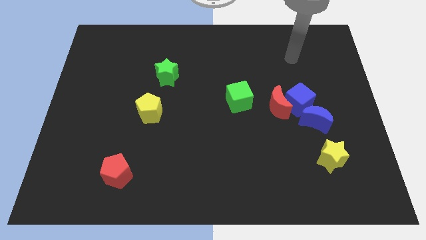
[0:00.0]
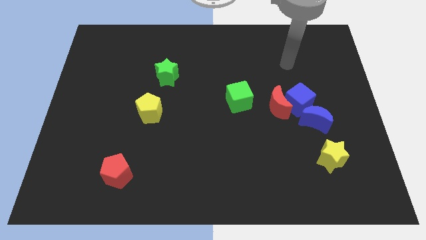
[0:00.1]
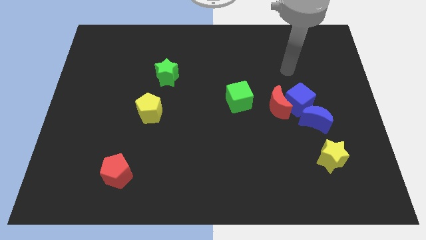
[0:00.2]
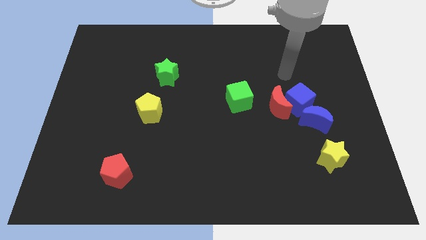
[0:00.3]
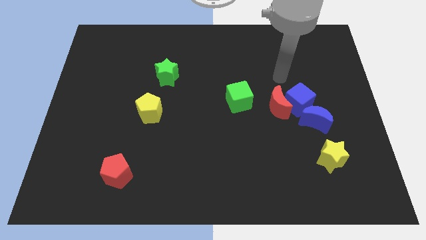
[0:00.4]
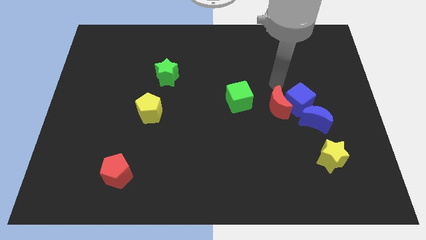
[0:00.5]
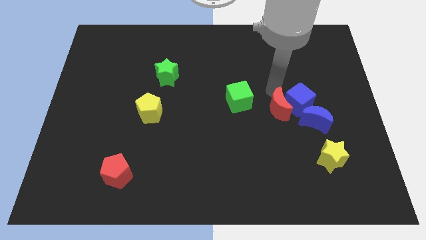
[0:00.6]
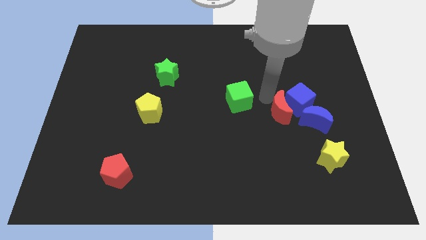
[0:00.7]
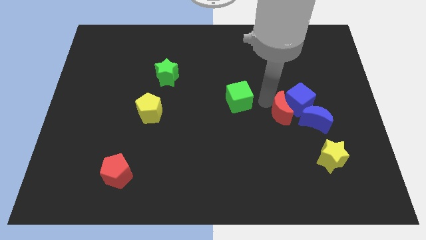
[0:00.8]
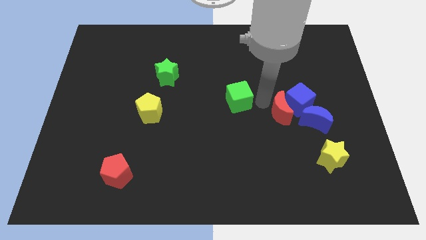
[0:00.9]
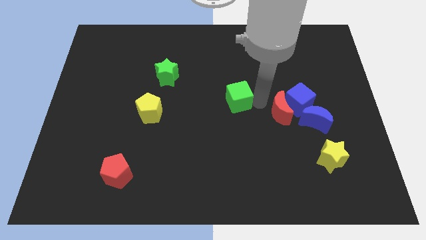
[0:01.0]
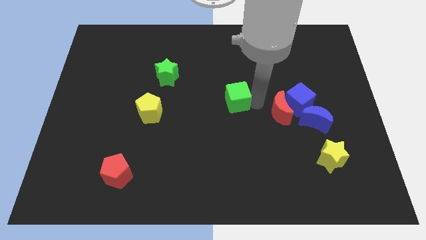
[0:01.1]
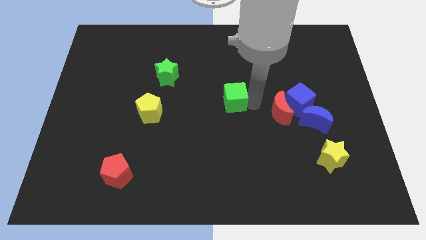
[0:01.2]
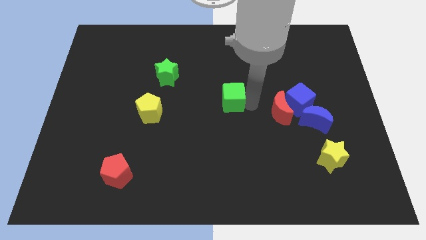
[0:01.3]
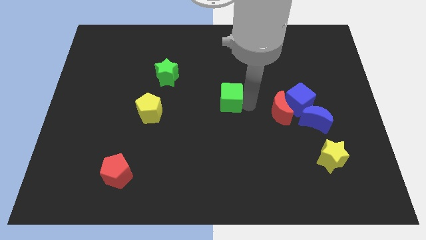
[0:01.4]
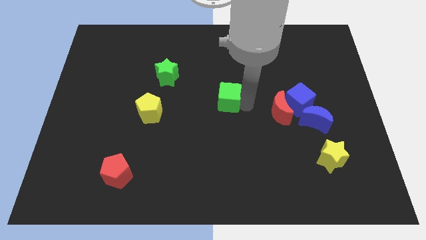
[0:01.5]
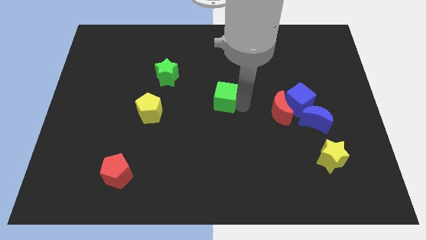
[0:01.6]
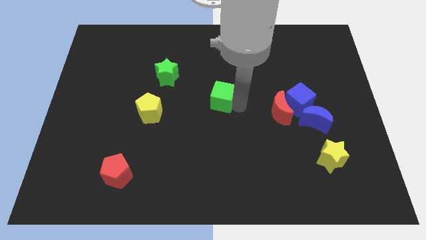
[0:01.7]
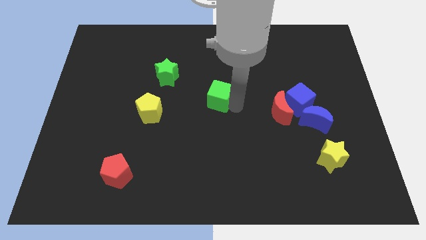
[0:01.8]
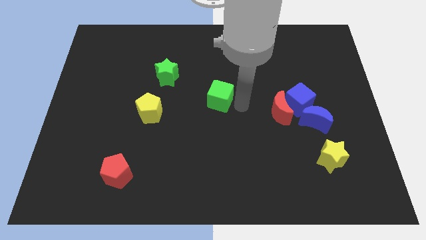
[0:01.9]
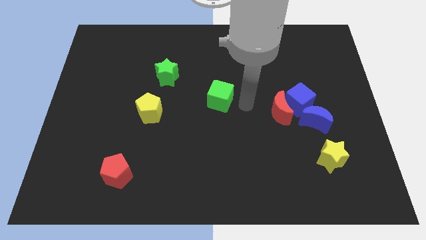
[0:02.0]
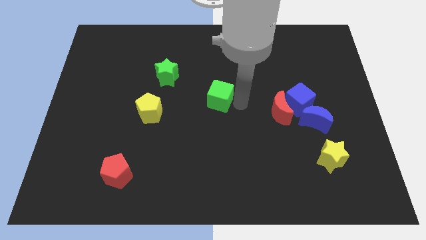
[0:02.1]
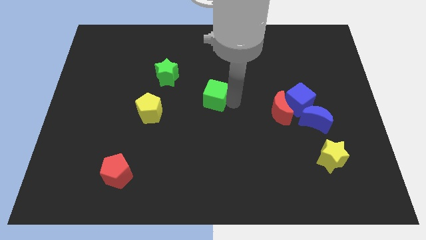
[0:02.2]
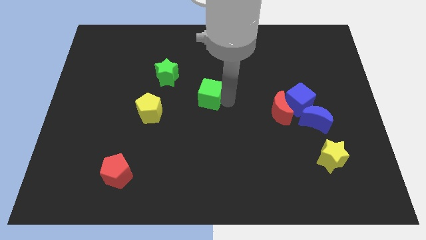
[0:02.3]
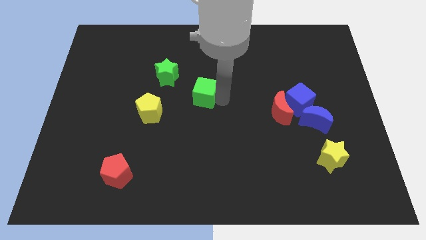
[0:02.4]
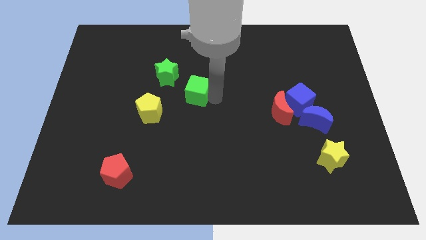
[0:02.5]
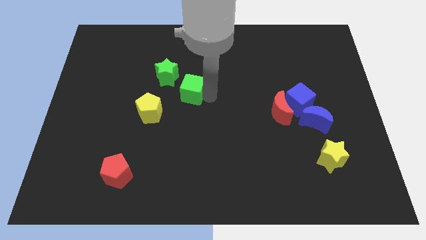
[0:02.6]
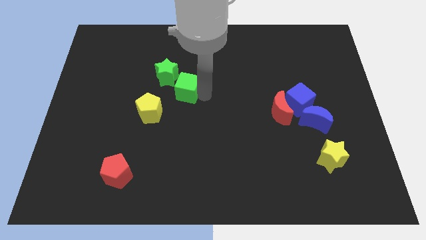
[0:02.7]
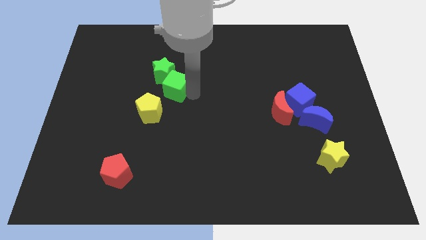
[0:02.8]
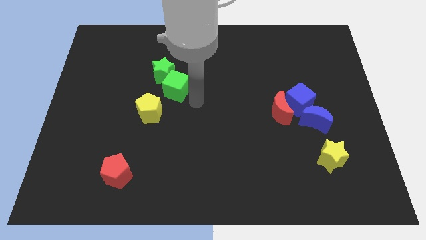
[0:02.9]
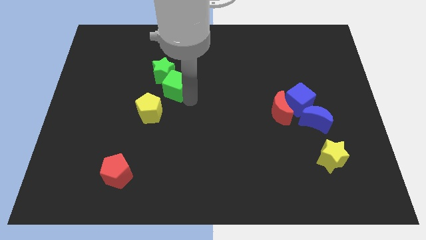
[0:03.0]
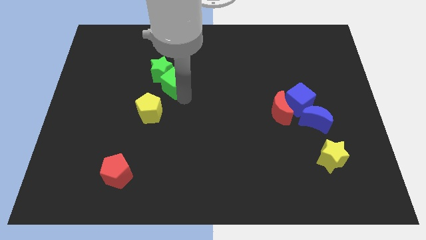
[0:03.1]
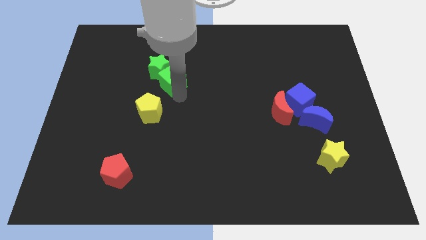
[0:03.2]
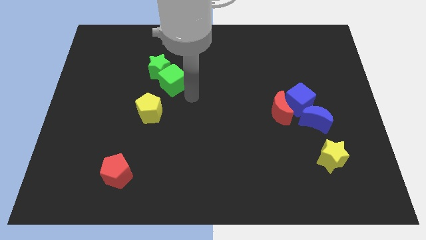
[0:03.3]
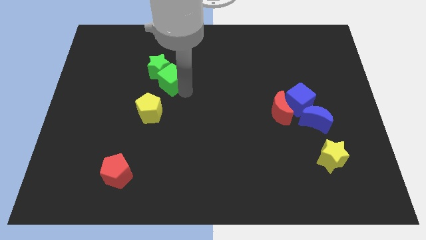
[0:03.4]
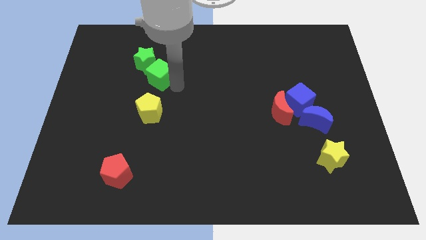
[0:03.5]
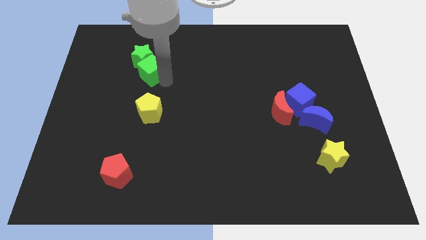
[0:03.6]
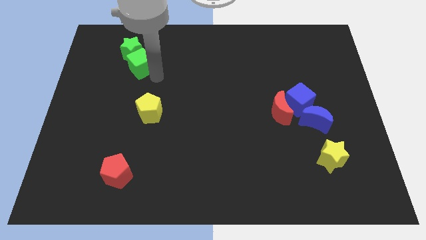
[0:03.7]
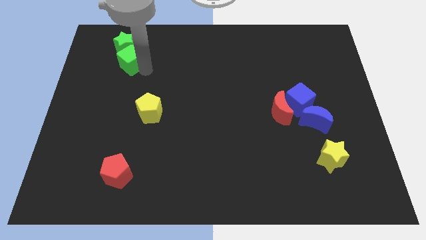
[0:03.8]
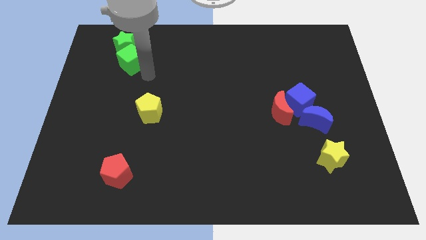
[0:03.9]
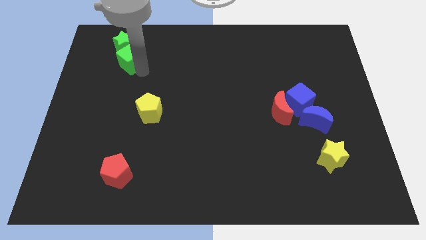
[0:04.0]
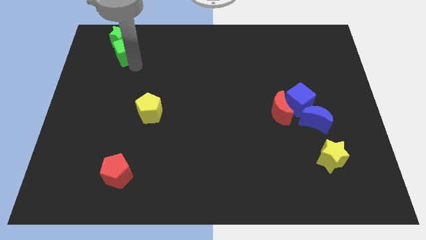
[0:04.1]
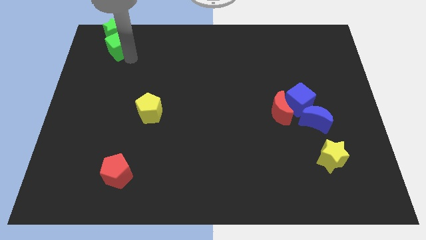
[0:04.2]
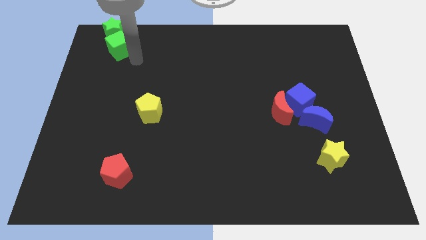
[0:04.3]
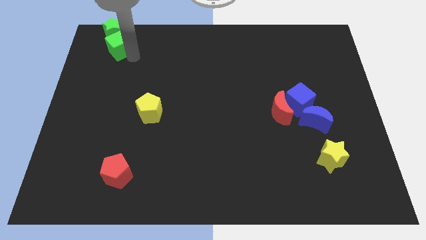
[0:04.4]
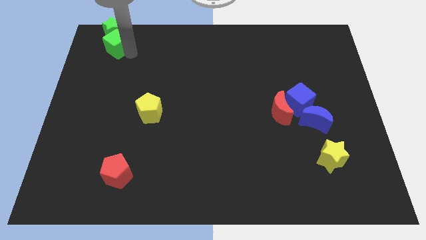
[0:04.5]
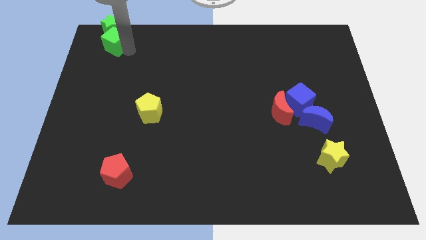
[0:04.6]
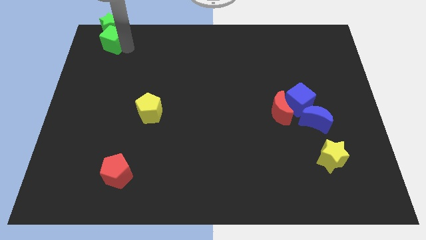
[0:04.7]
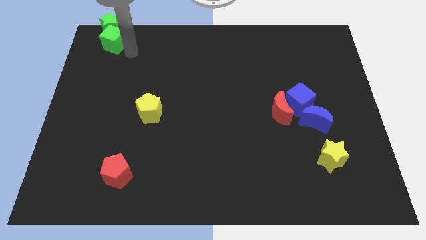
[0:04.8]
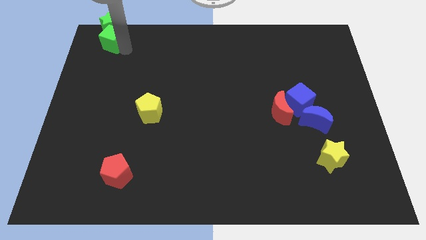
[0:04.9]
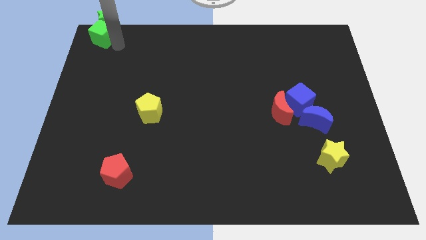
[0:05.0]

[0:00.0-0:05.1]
put the green cube to the top left

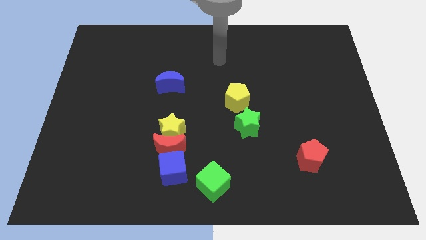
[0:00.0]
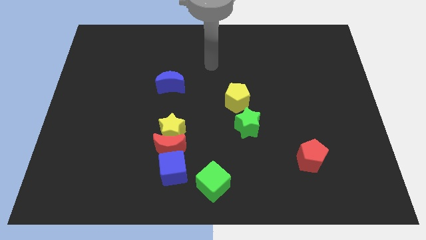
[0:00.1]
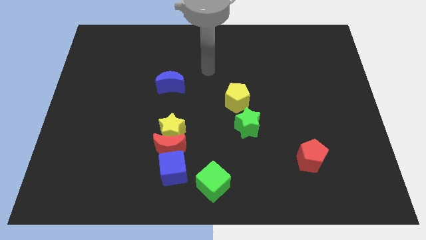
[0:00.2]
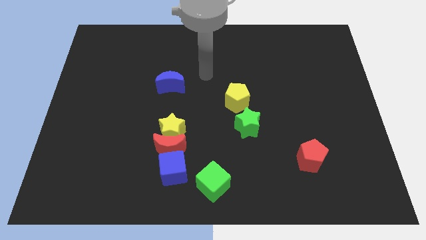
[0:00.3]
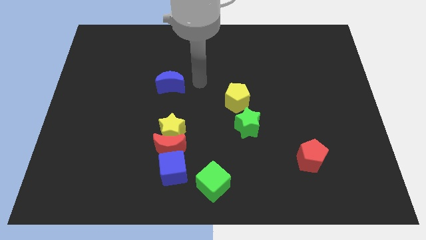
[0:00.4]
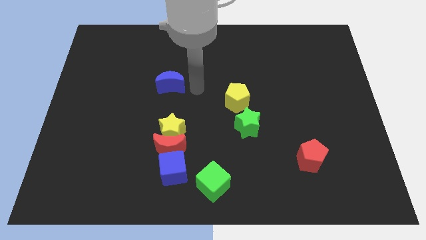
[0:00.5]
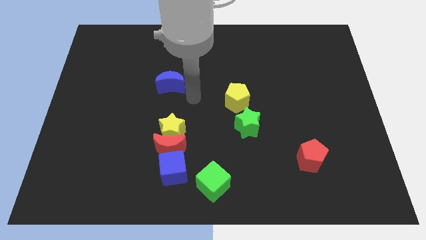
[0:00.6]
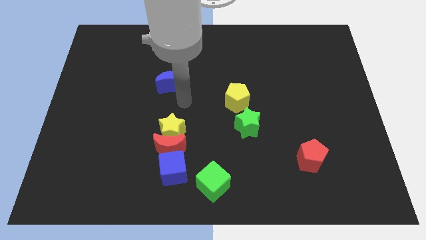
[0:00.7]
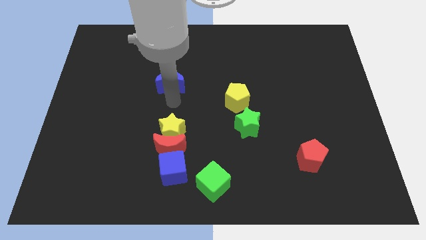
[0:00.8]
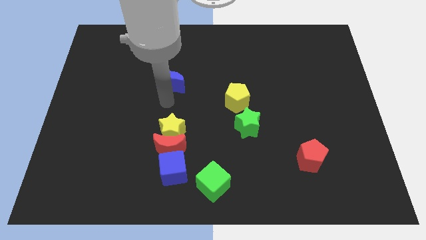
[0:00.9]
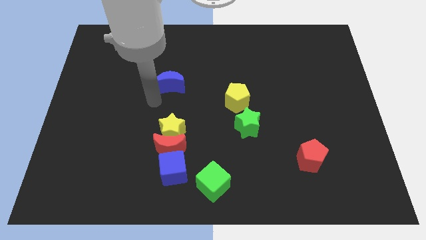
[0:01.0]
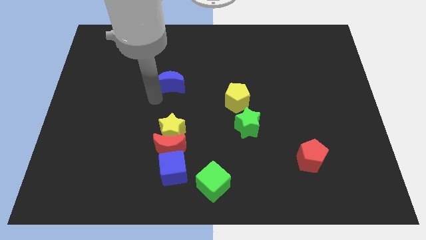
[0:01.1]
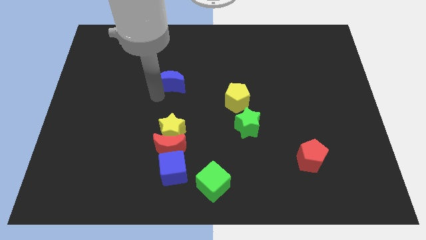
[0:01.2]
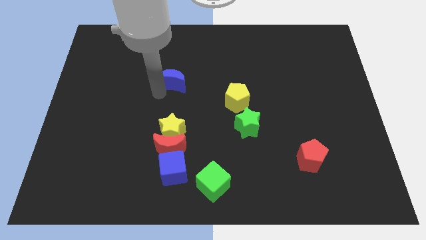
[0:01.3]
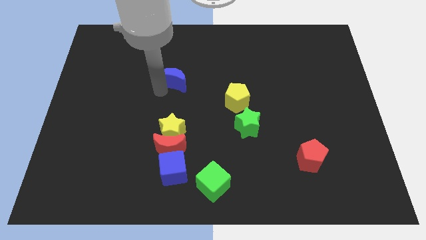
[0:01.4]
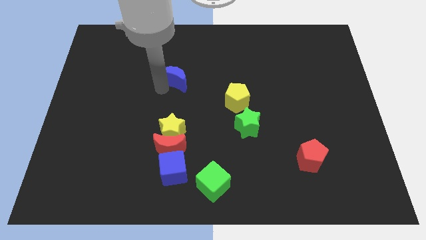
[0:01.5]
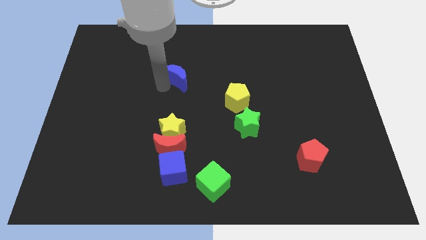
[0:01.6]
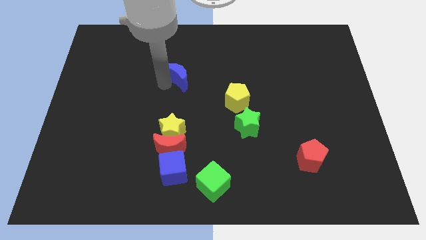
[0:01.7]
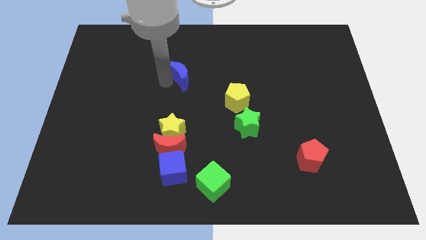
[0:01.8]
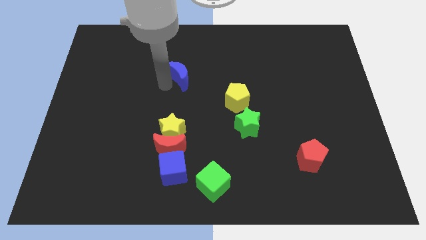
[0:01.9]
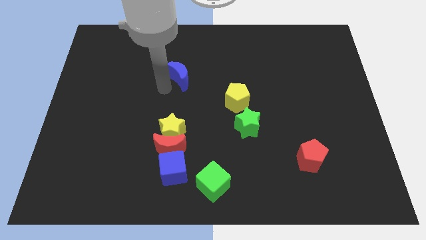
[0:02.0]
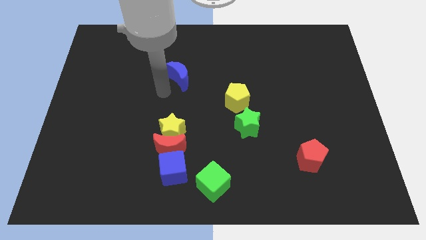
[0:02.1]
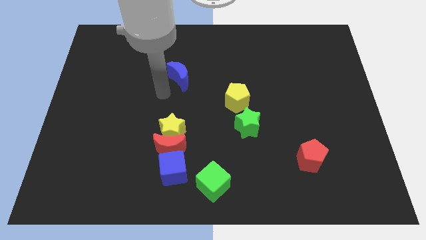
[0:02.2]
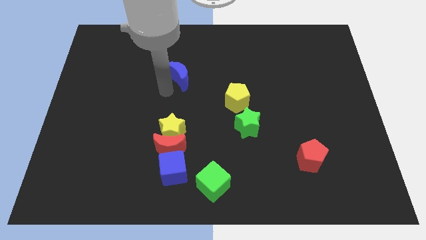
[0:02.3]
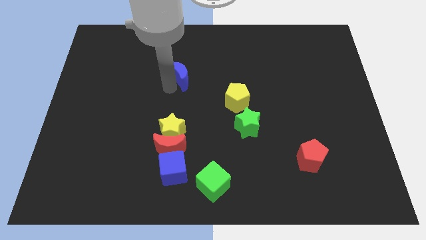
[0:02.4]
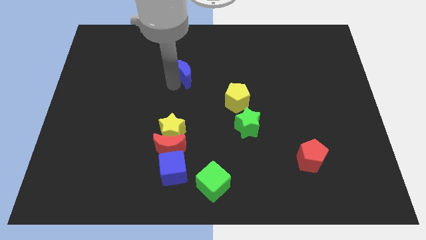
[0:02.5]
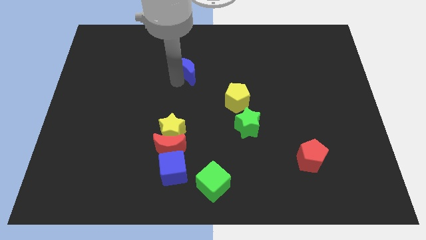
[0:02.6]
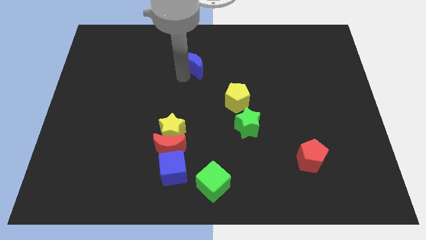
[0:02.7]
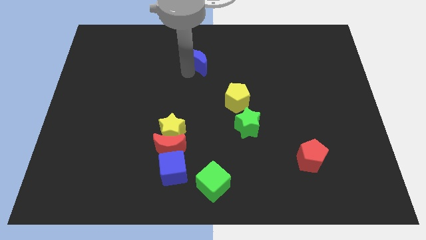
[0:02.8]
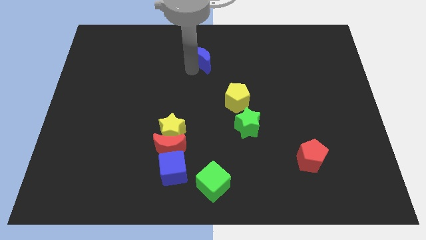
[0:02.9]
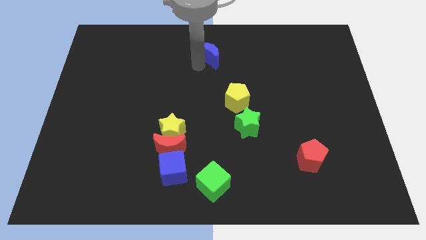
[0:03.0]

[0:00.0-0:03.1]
move the blue moon to the top
